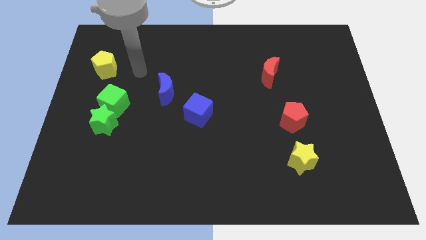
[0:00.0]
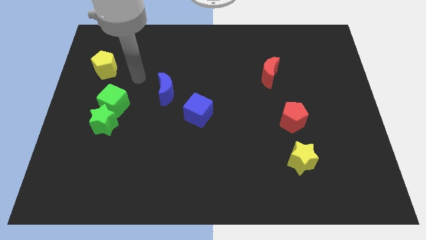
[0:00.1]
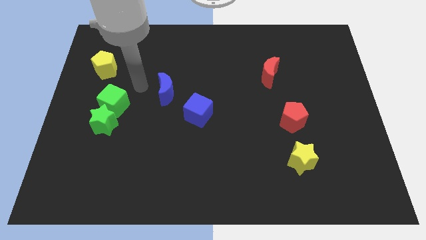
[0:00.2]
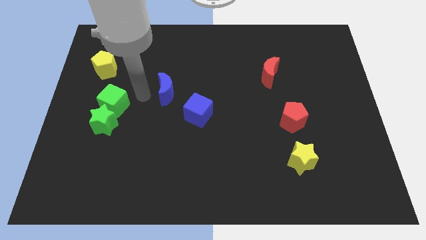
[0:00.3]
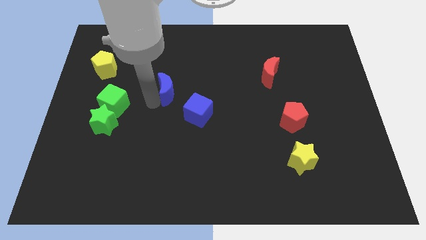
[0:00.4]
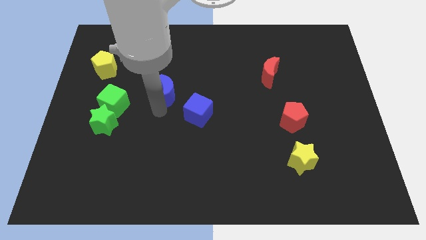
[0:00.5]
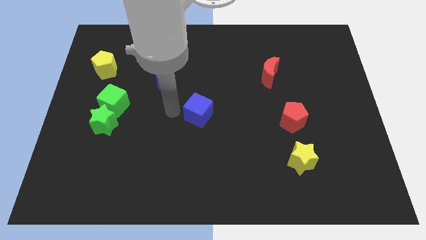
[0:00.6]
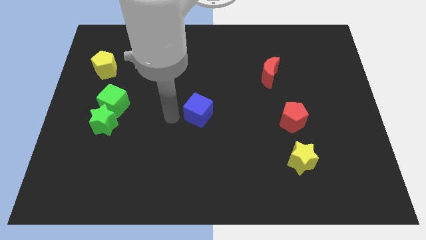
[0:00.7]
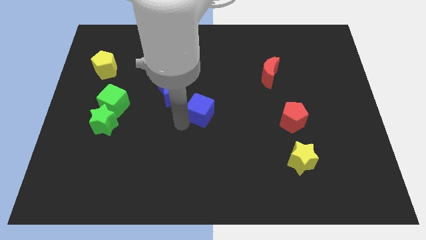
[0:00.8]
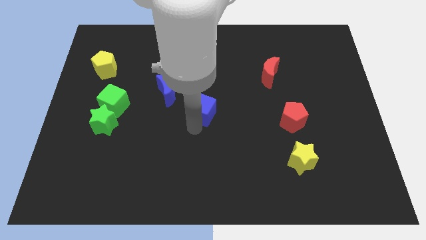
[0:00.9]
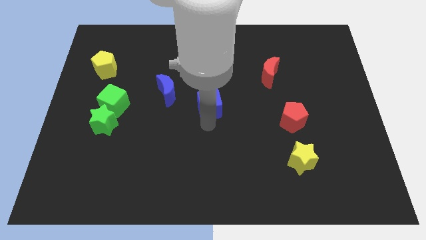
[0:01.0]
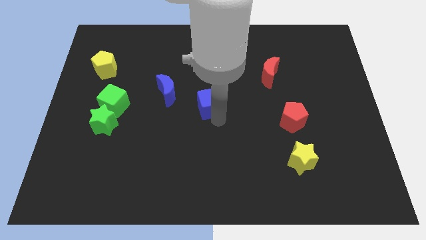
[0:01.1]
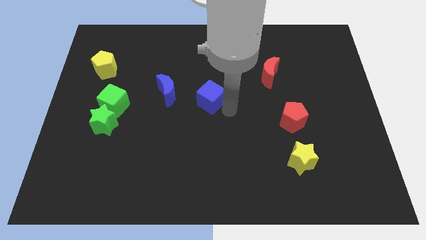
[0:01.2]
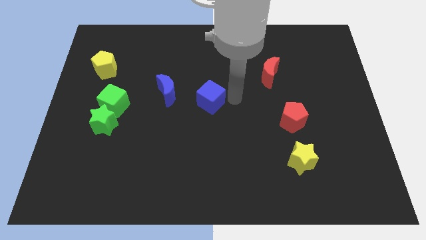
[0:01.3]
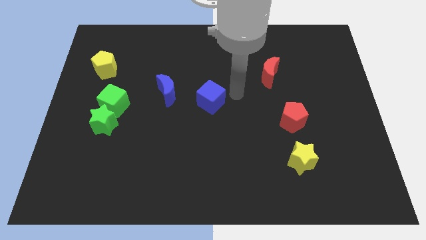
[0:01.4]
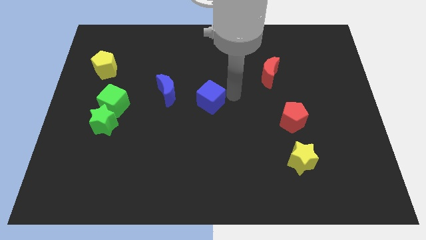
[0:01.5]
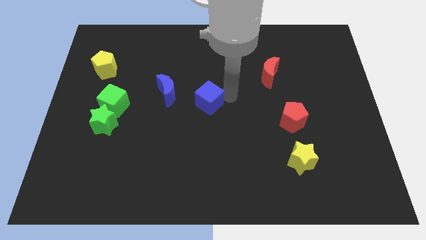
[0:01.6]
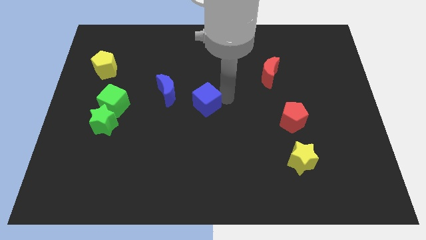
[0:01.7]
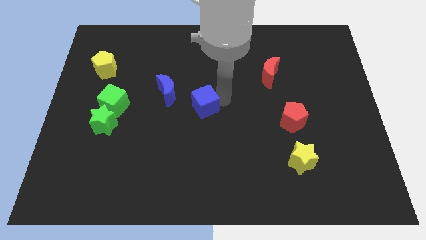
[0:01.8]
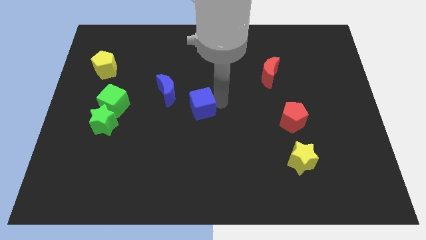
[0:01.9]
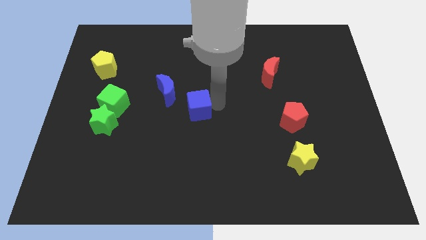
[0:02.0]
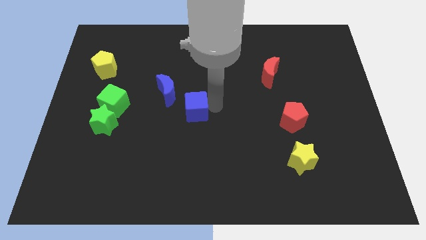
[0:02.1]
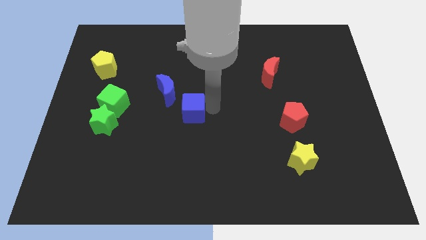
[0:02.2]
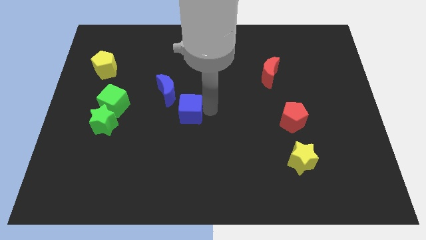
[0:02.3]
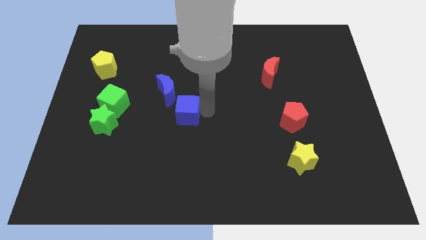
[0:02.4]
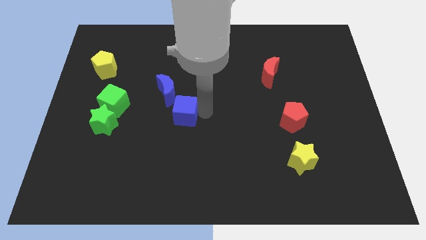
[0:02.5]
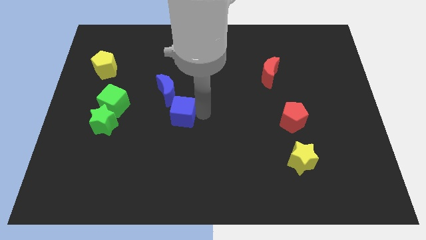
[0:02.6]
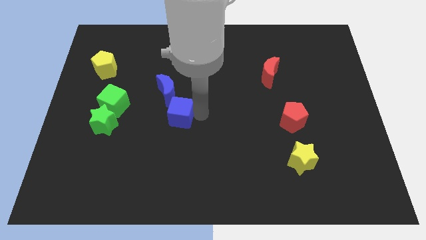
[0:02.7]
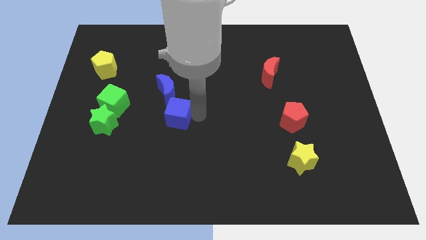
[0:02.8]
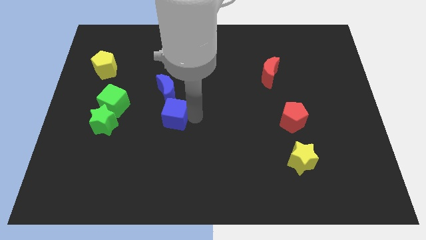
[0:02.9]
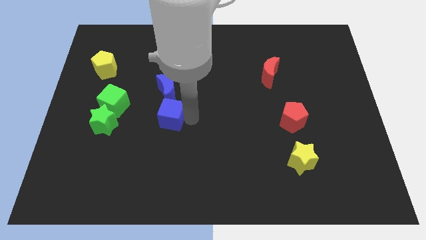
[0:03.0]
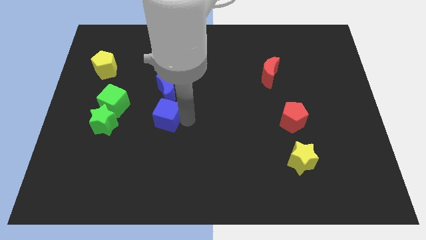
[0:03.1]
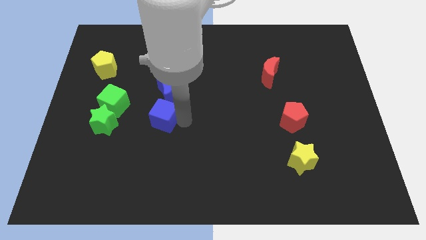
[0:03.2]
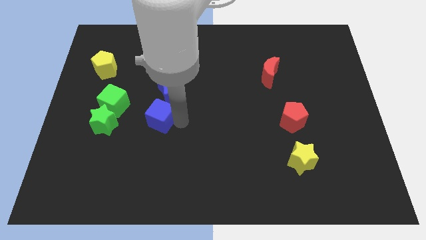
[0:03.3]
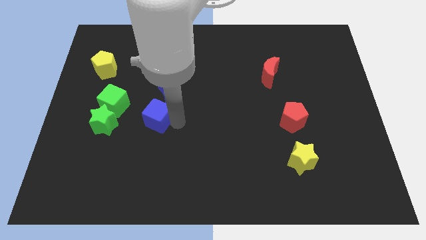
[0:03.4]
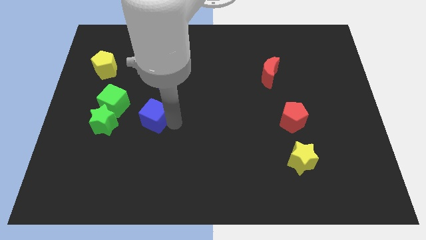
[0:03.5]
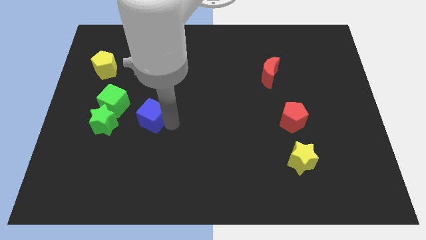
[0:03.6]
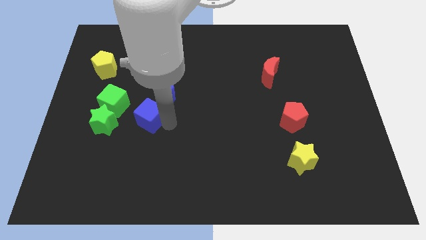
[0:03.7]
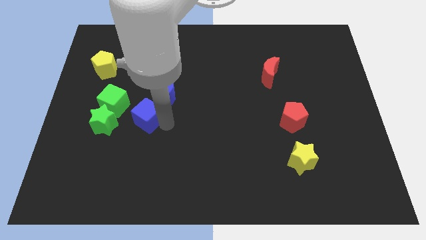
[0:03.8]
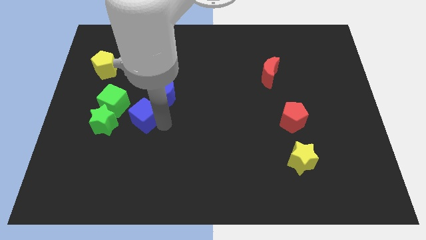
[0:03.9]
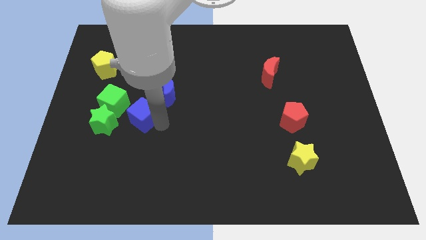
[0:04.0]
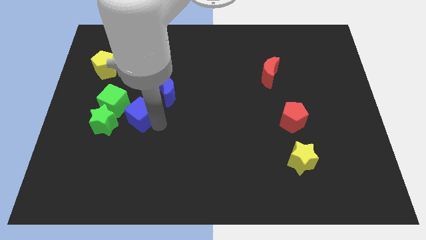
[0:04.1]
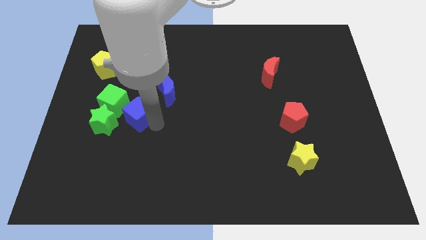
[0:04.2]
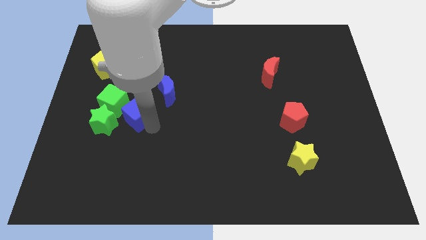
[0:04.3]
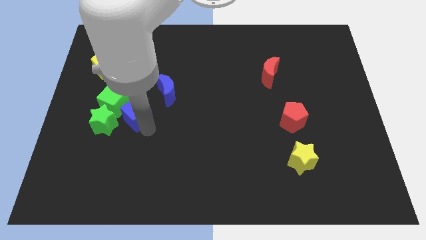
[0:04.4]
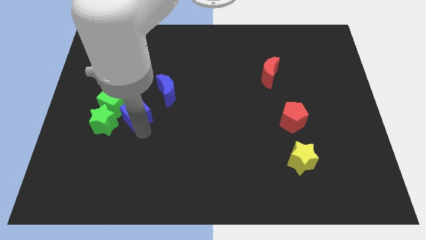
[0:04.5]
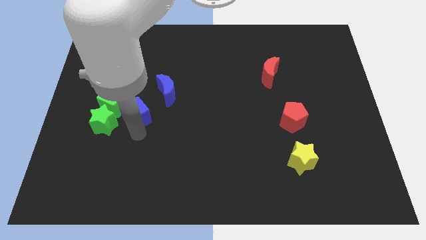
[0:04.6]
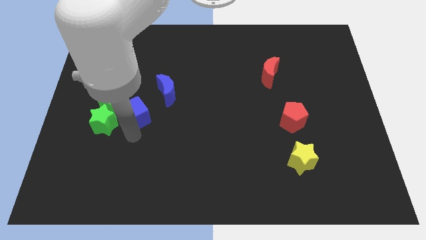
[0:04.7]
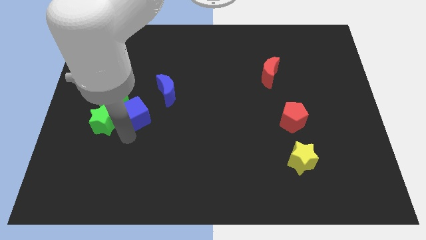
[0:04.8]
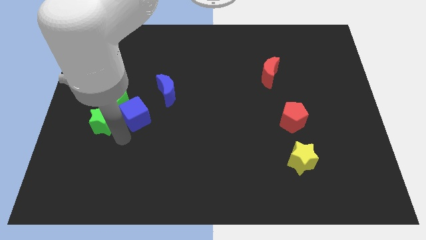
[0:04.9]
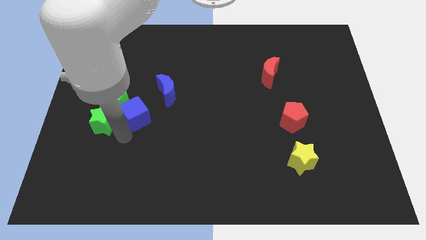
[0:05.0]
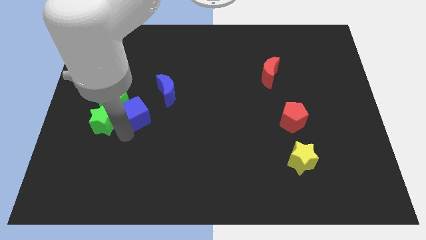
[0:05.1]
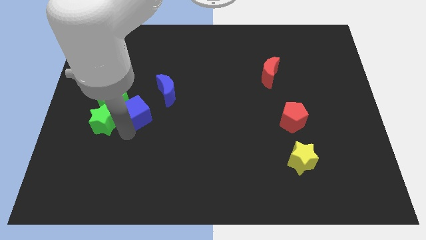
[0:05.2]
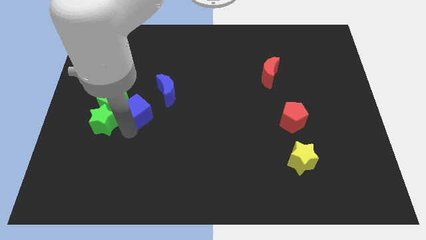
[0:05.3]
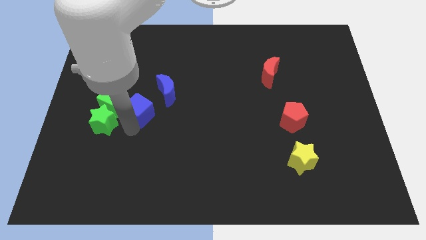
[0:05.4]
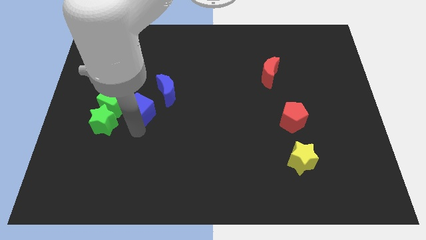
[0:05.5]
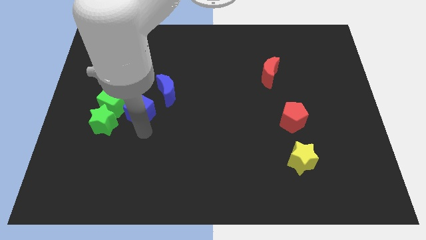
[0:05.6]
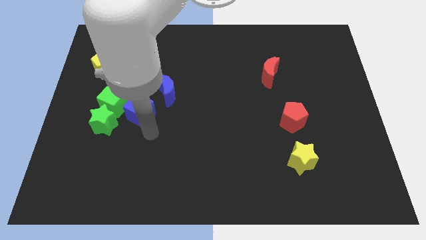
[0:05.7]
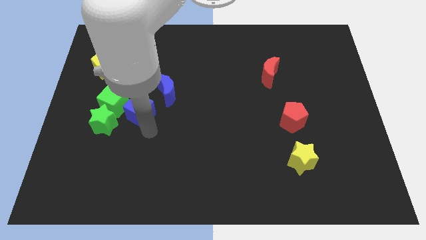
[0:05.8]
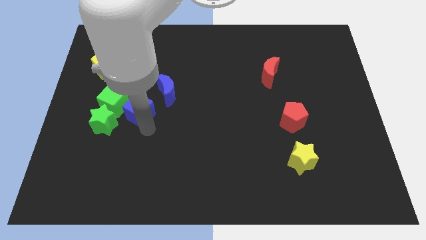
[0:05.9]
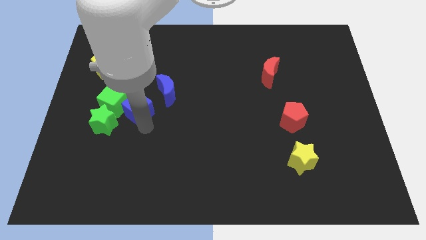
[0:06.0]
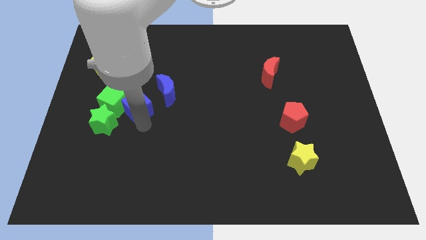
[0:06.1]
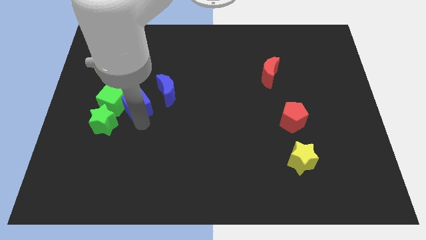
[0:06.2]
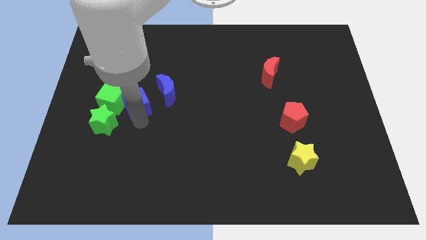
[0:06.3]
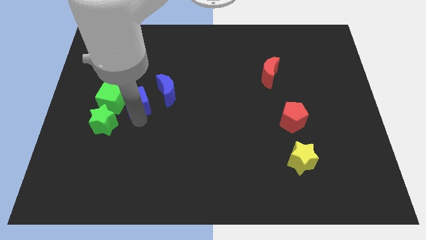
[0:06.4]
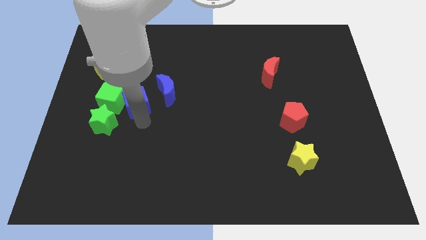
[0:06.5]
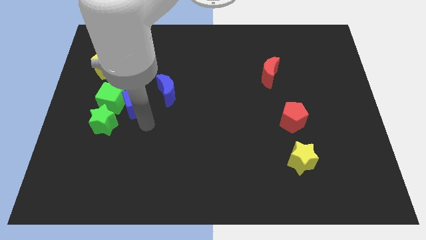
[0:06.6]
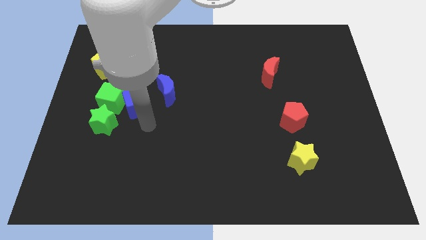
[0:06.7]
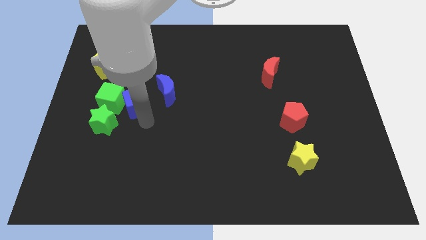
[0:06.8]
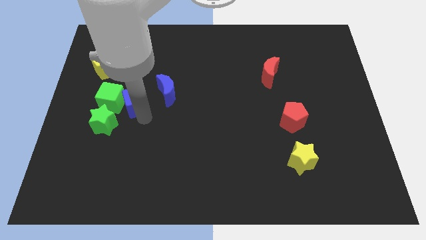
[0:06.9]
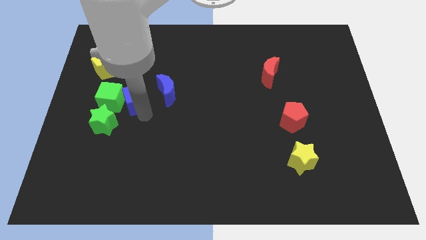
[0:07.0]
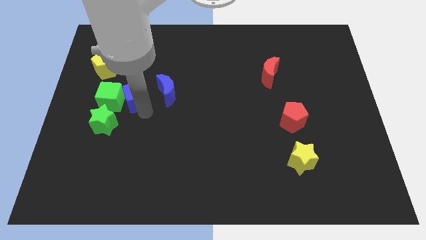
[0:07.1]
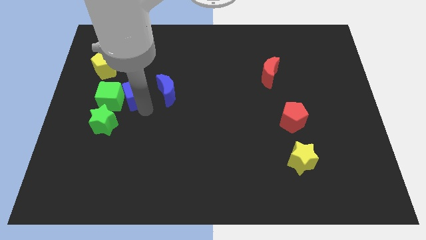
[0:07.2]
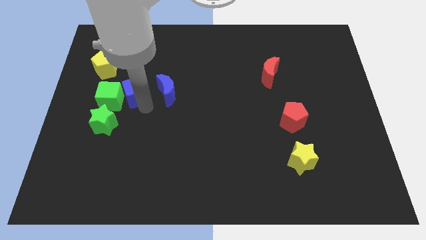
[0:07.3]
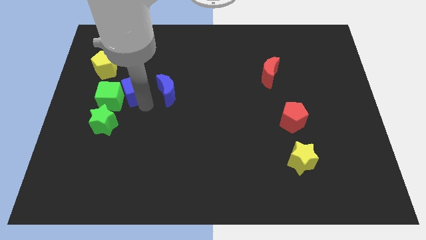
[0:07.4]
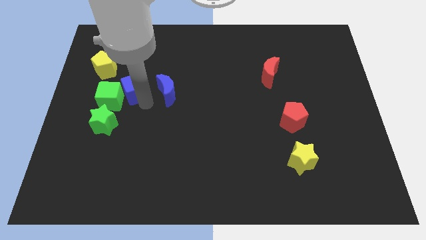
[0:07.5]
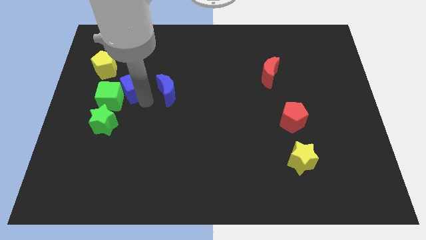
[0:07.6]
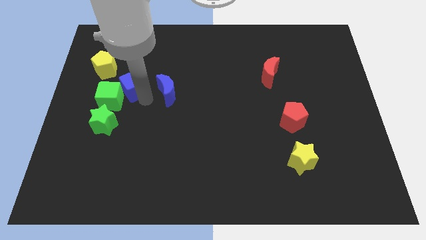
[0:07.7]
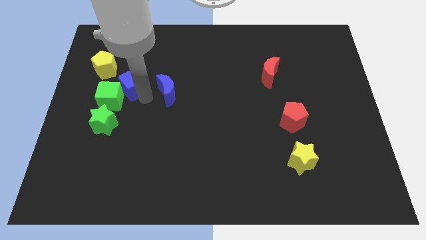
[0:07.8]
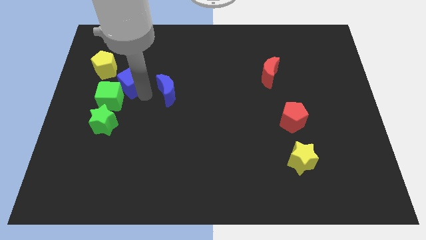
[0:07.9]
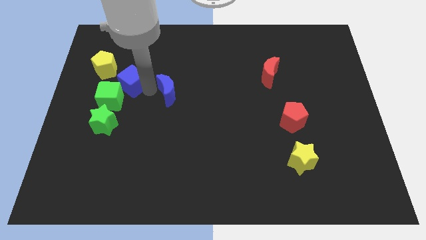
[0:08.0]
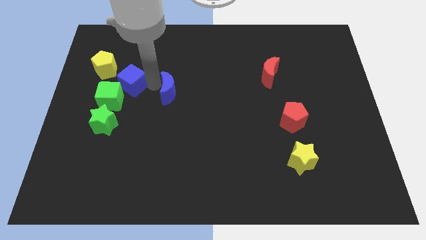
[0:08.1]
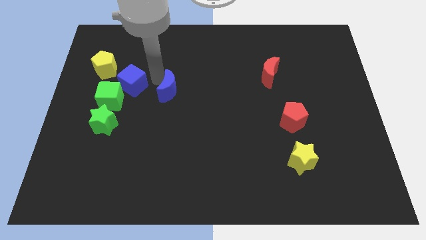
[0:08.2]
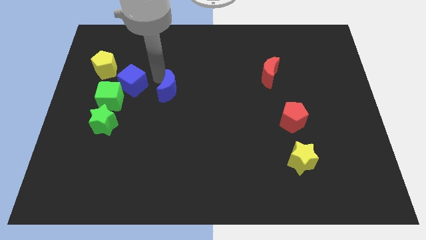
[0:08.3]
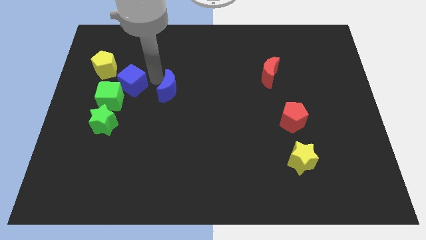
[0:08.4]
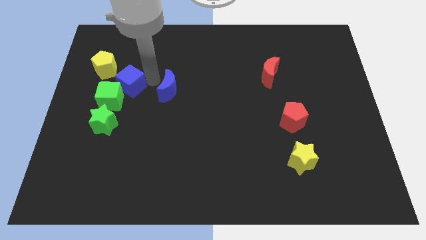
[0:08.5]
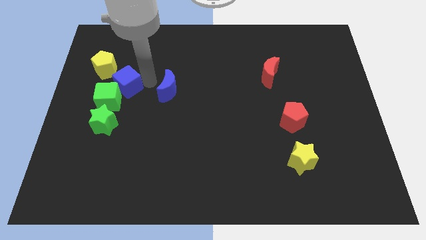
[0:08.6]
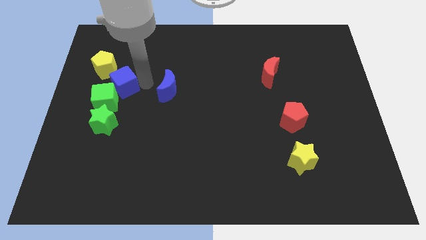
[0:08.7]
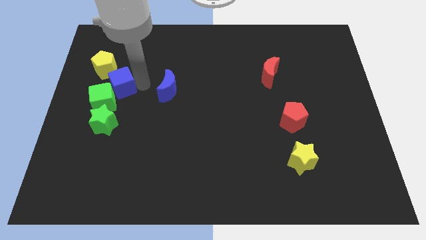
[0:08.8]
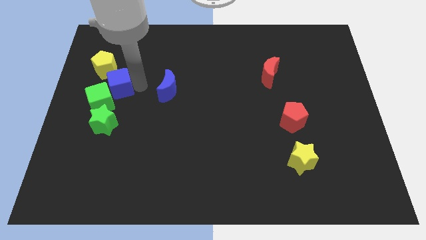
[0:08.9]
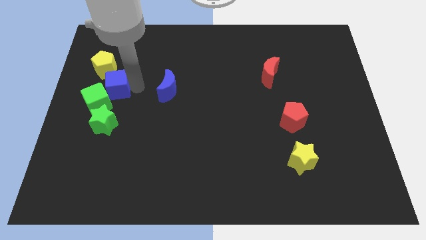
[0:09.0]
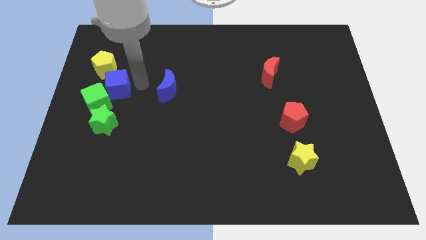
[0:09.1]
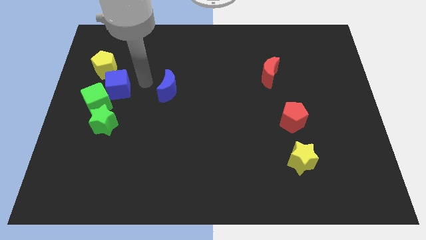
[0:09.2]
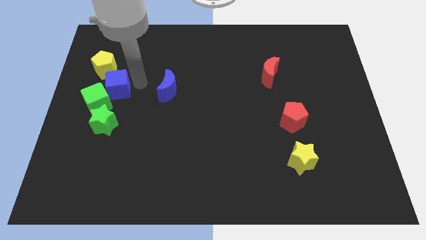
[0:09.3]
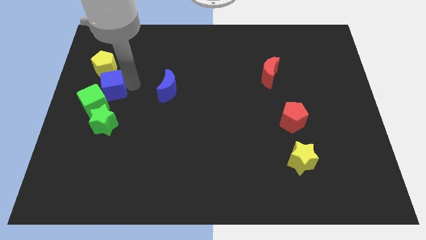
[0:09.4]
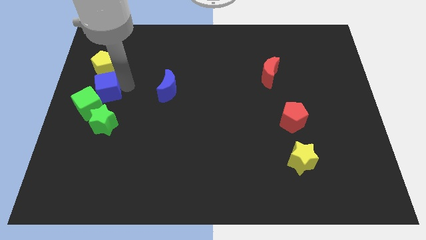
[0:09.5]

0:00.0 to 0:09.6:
put the blue cube to the left side
